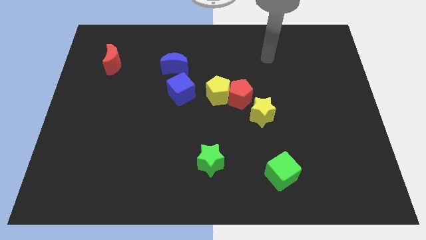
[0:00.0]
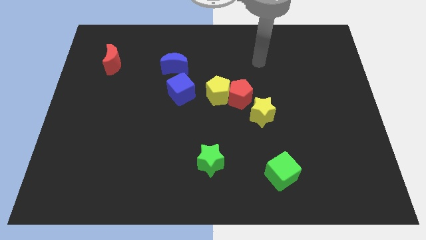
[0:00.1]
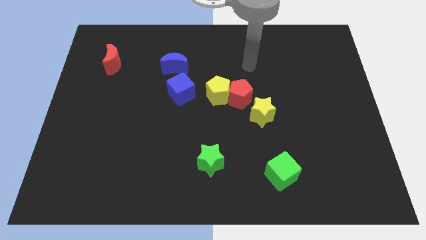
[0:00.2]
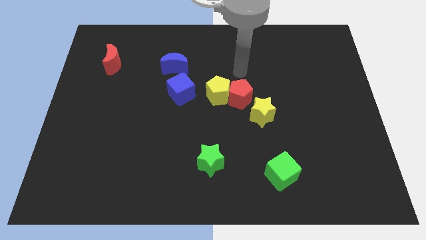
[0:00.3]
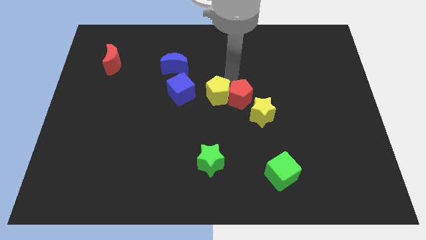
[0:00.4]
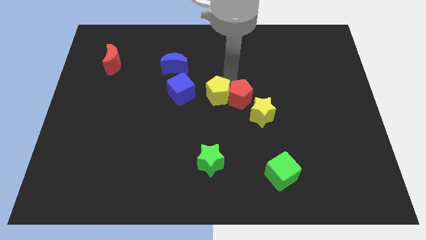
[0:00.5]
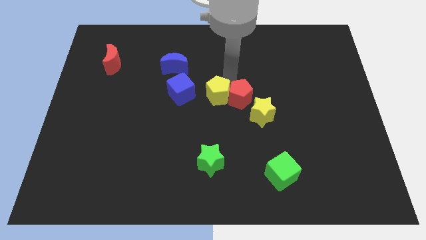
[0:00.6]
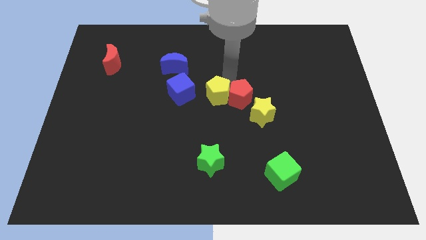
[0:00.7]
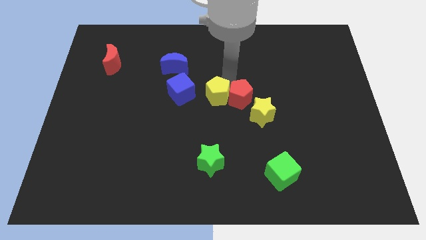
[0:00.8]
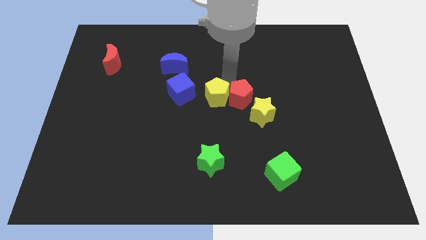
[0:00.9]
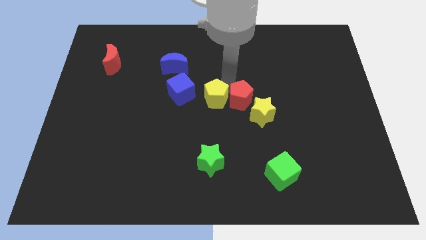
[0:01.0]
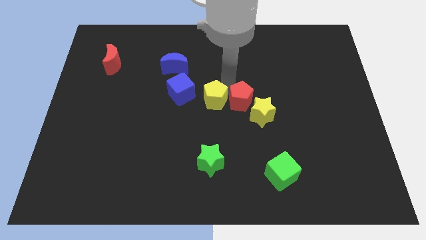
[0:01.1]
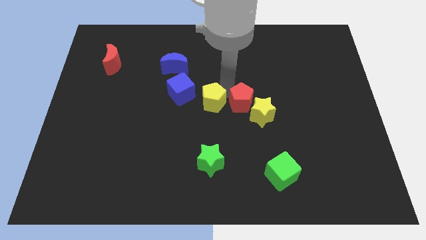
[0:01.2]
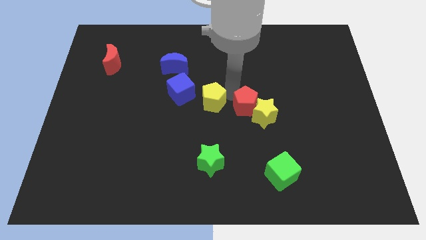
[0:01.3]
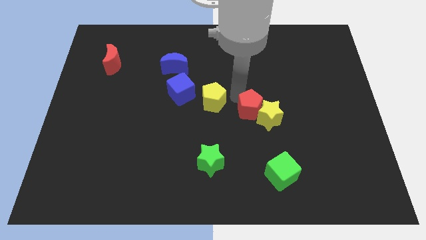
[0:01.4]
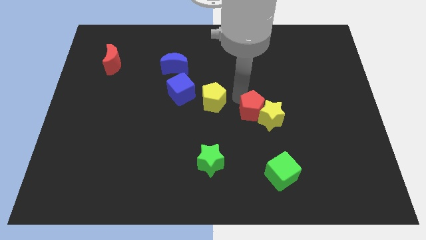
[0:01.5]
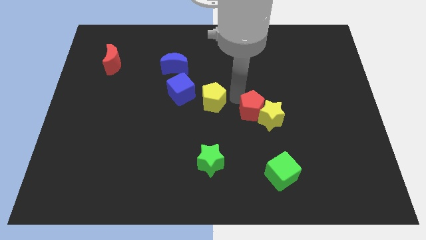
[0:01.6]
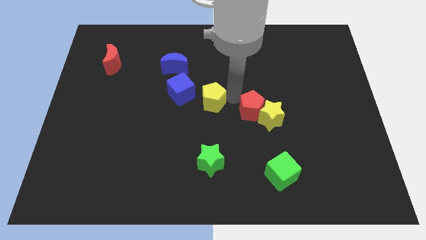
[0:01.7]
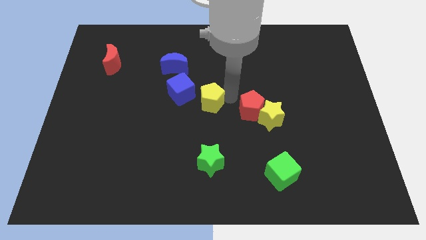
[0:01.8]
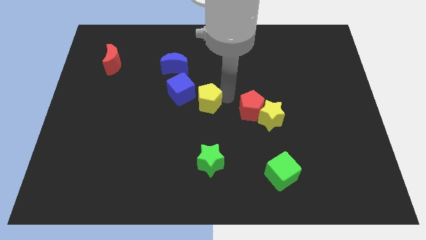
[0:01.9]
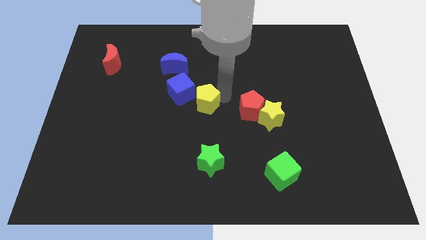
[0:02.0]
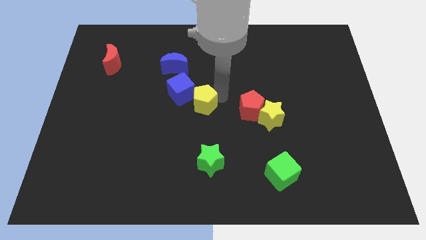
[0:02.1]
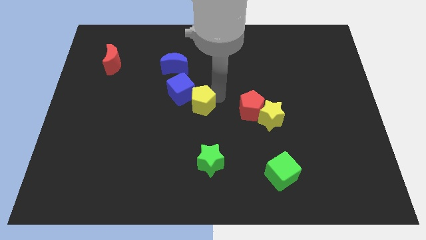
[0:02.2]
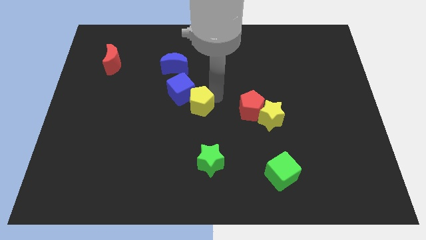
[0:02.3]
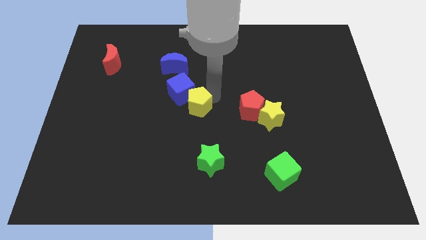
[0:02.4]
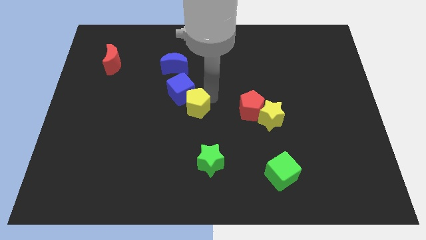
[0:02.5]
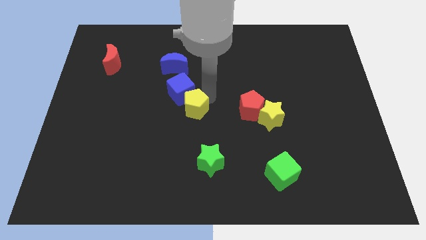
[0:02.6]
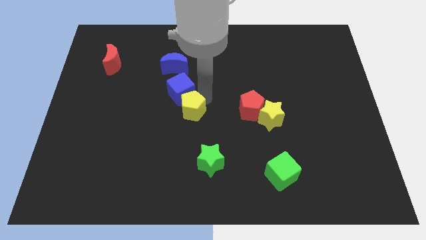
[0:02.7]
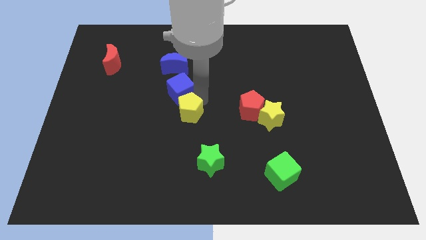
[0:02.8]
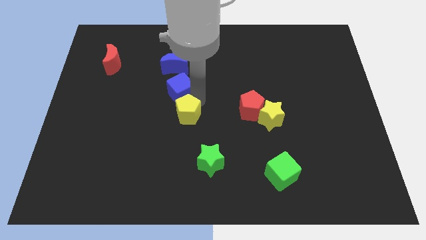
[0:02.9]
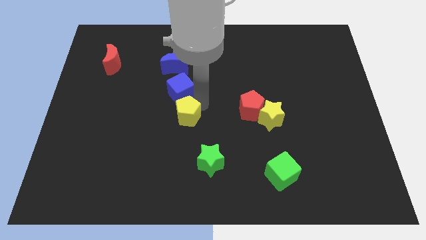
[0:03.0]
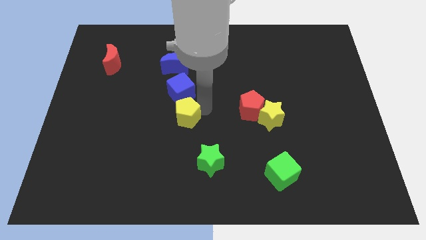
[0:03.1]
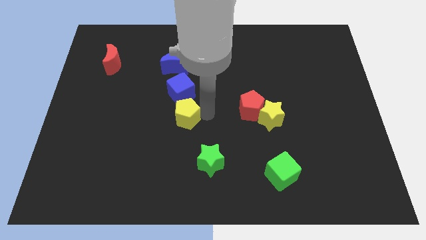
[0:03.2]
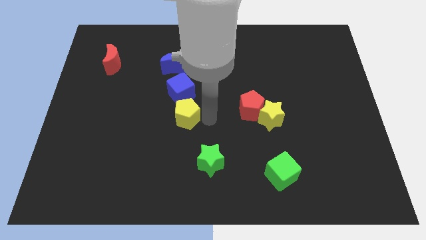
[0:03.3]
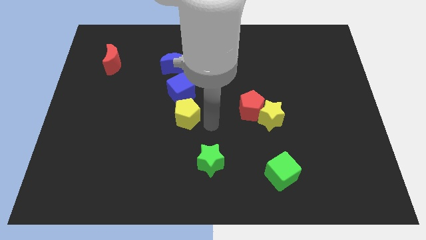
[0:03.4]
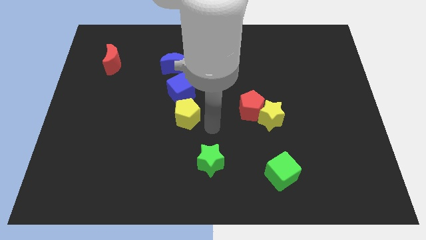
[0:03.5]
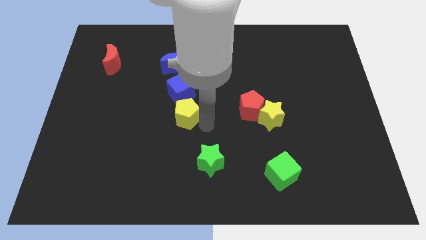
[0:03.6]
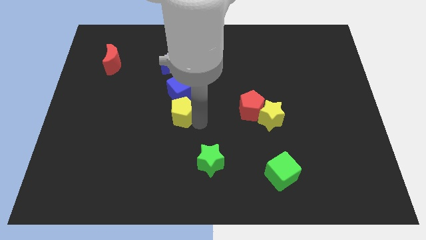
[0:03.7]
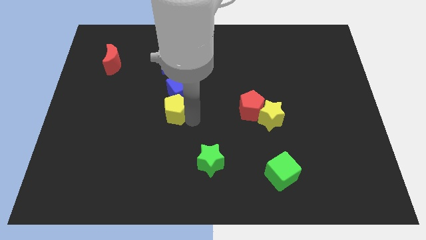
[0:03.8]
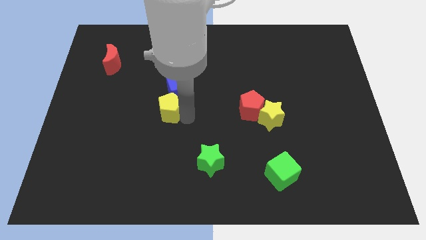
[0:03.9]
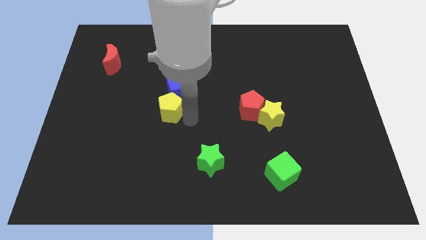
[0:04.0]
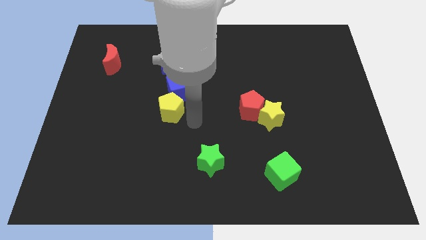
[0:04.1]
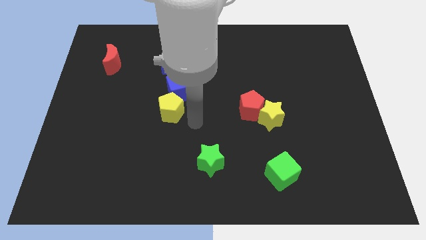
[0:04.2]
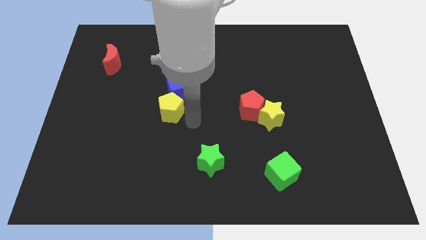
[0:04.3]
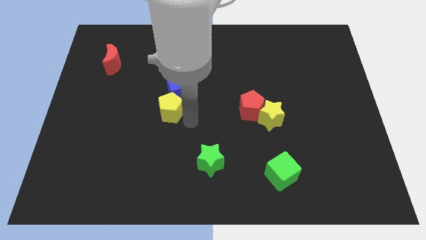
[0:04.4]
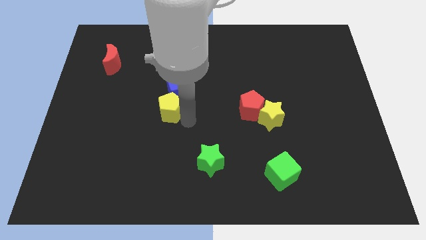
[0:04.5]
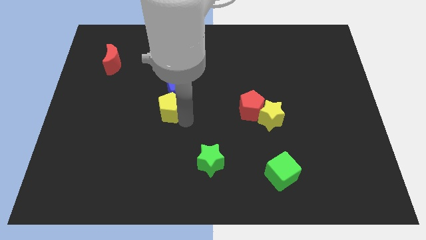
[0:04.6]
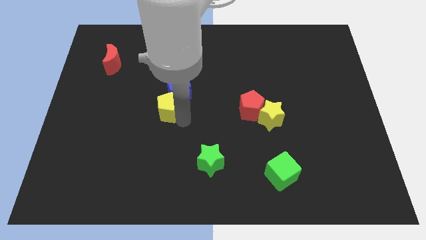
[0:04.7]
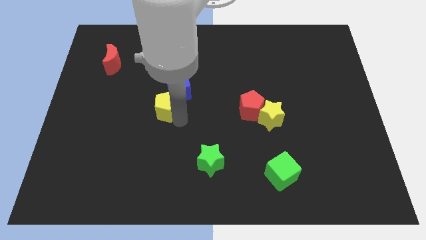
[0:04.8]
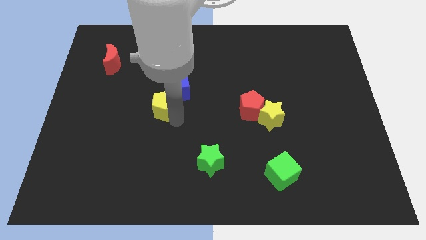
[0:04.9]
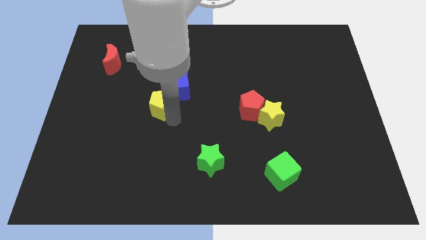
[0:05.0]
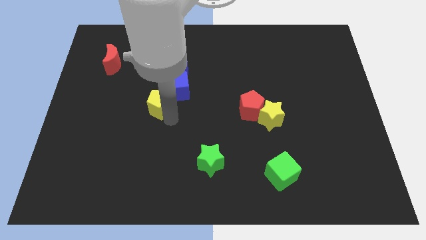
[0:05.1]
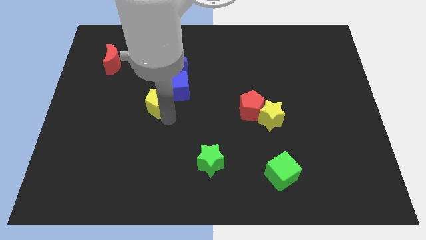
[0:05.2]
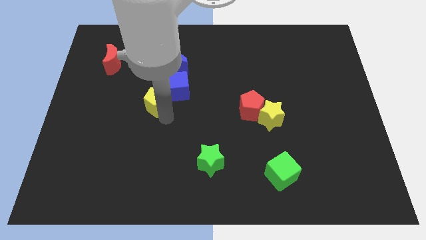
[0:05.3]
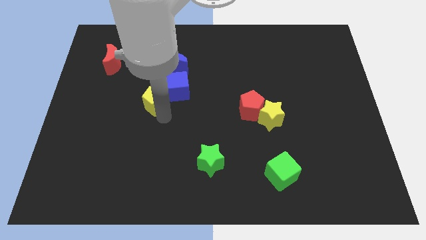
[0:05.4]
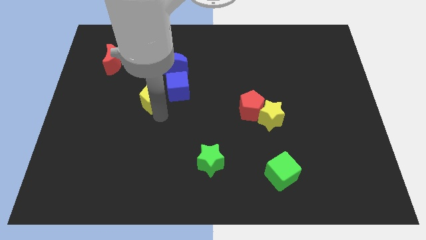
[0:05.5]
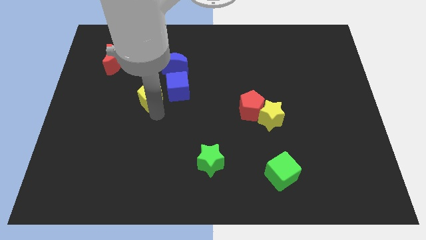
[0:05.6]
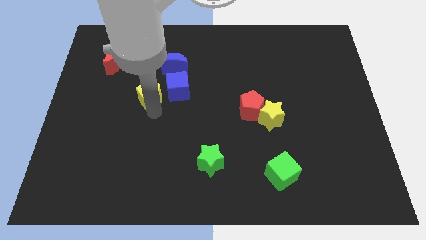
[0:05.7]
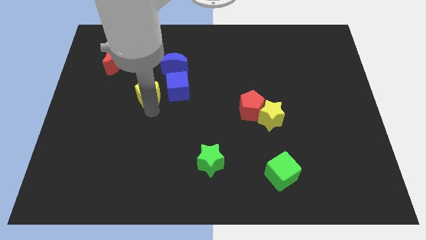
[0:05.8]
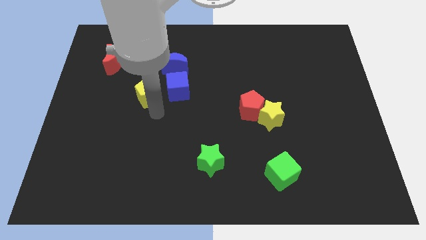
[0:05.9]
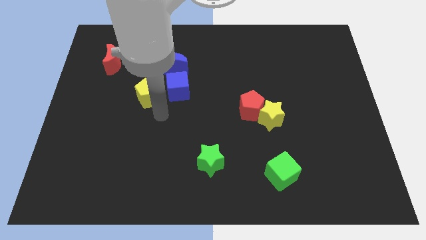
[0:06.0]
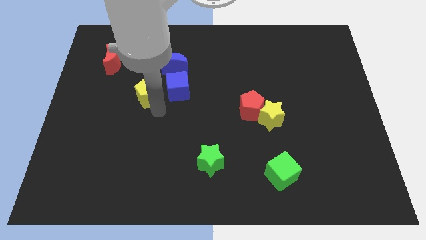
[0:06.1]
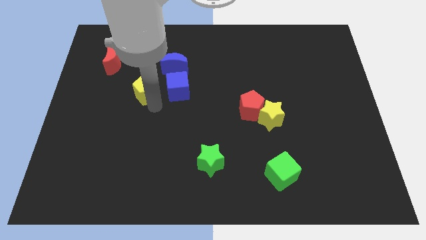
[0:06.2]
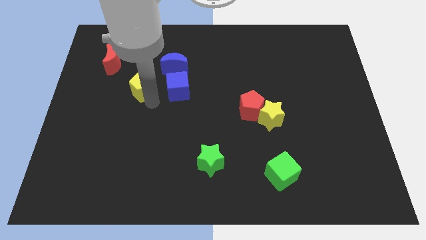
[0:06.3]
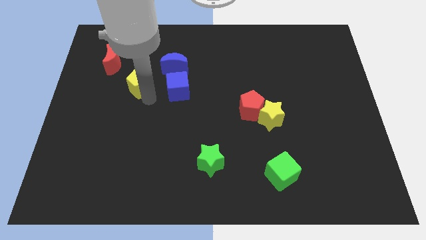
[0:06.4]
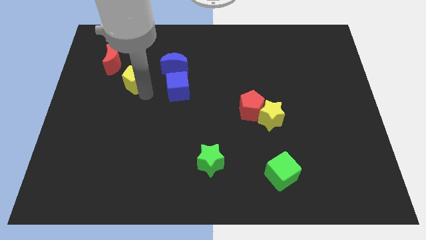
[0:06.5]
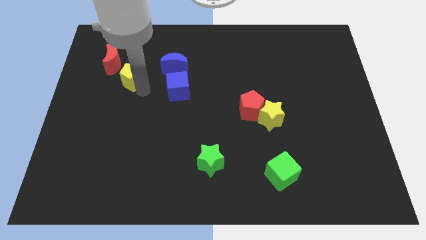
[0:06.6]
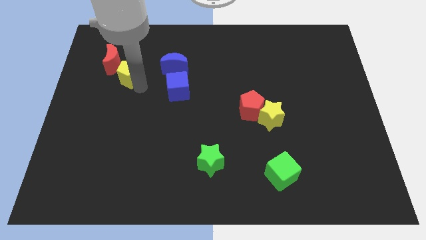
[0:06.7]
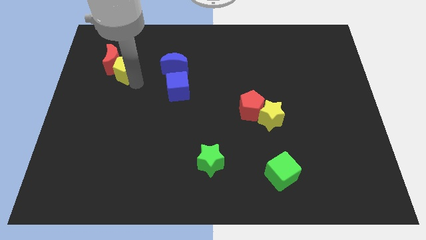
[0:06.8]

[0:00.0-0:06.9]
move the yellow pentagon to the red moon

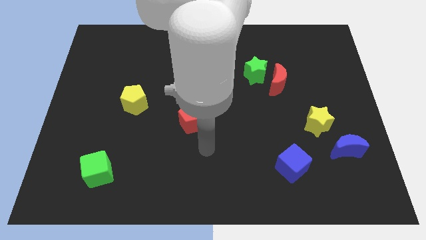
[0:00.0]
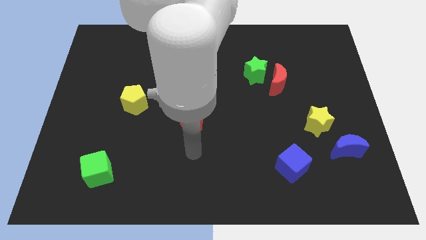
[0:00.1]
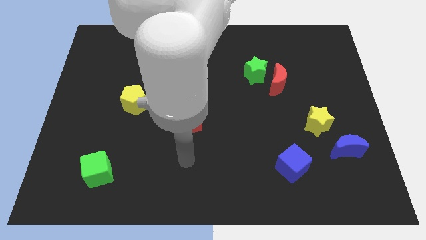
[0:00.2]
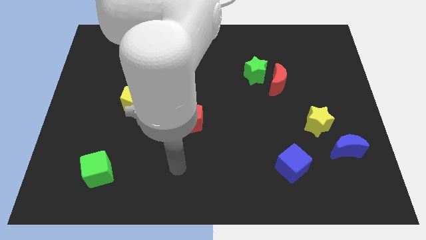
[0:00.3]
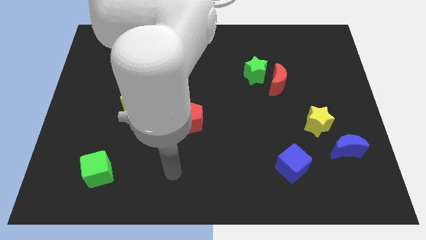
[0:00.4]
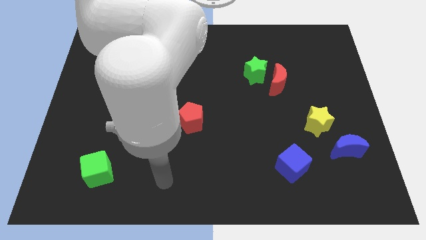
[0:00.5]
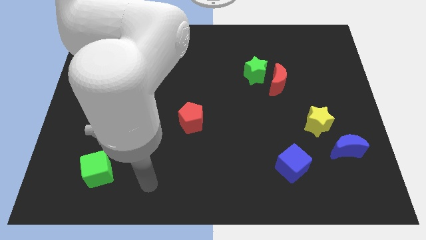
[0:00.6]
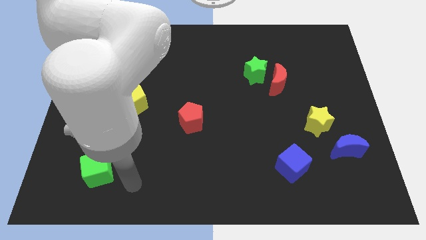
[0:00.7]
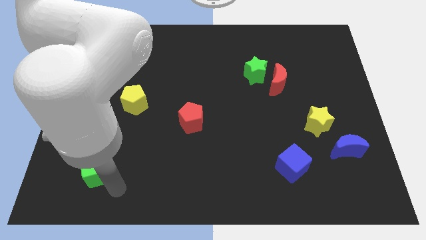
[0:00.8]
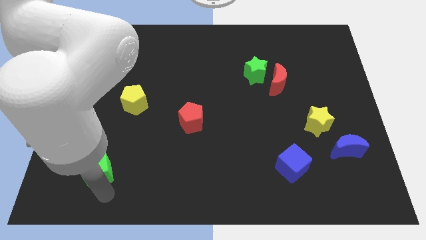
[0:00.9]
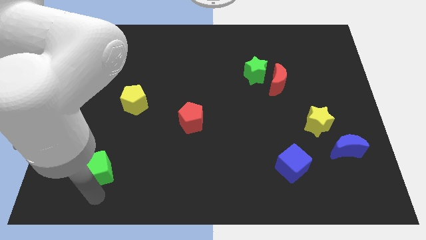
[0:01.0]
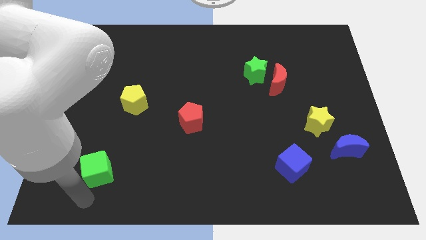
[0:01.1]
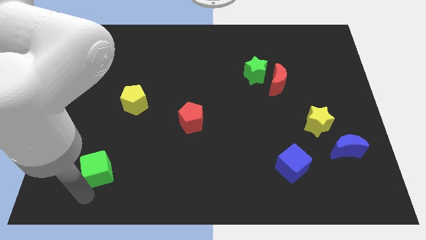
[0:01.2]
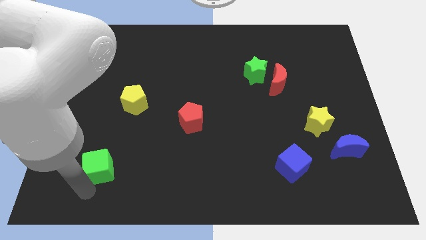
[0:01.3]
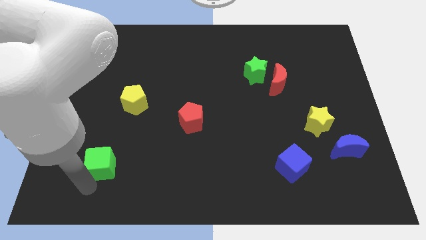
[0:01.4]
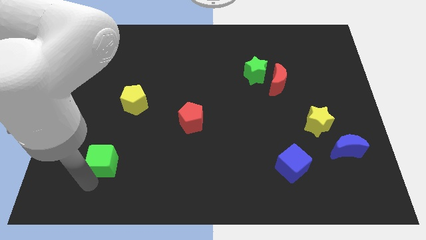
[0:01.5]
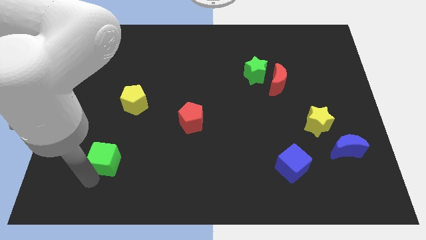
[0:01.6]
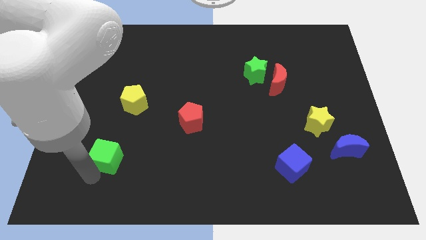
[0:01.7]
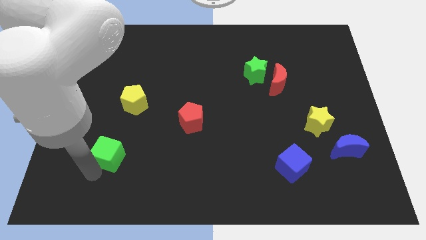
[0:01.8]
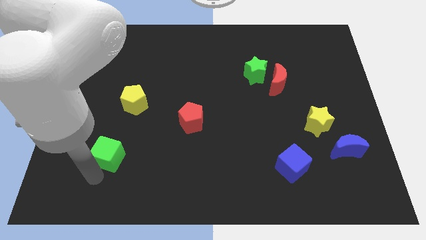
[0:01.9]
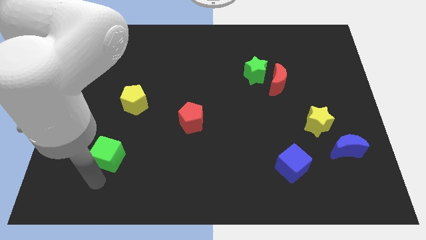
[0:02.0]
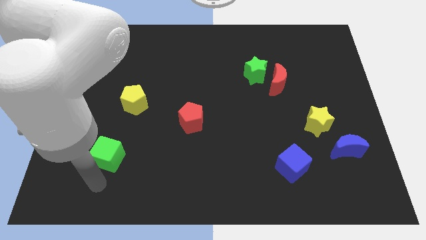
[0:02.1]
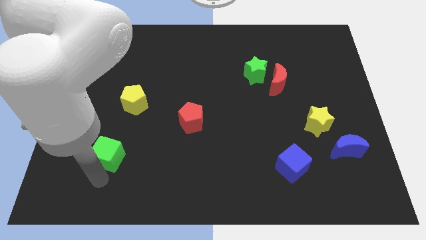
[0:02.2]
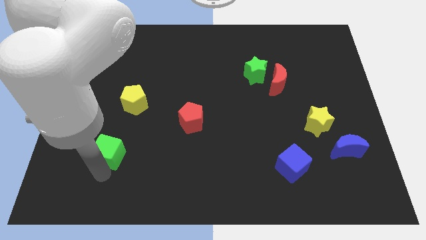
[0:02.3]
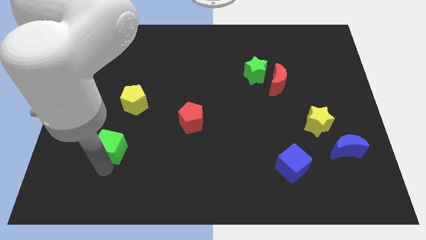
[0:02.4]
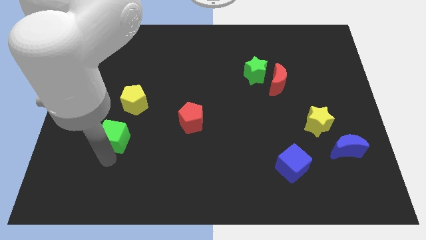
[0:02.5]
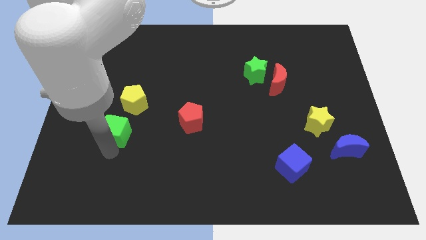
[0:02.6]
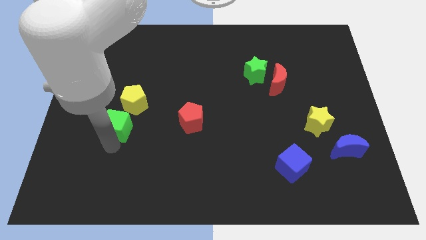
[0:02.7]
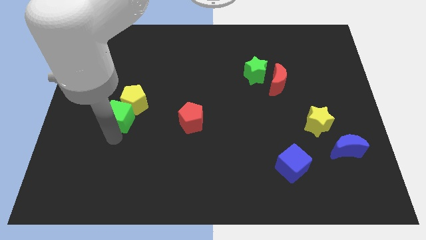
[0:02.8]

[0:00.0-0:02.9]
push the green cube to the yellow pentagon
